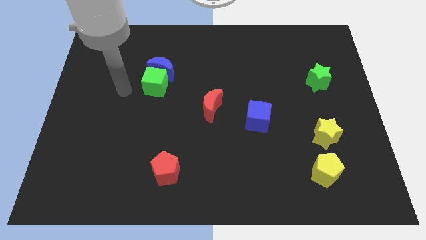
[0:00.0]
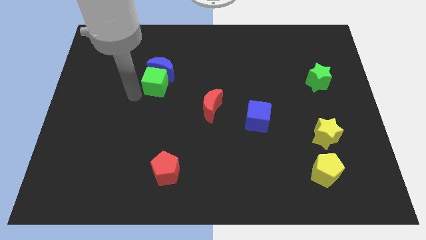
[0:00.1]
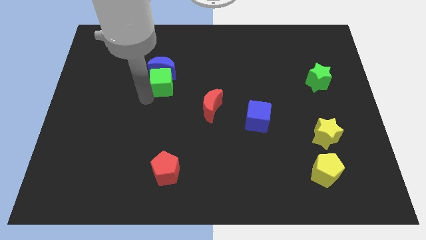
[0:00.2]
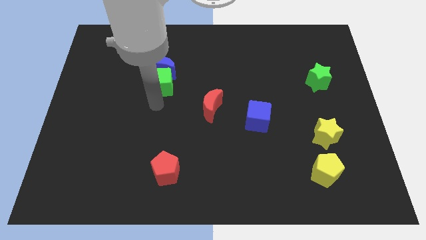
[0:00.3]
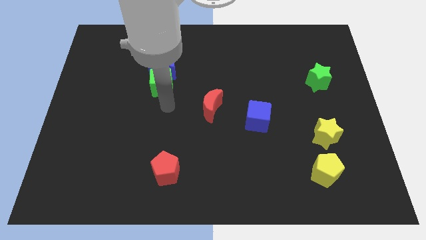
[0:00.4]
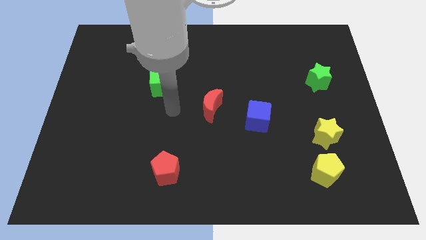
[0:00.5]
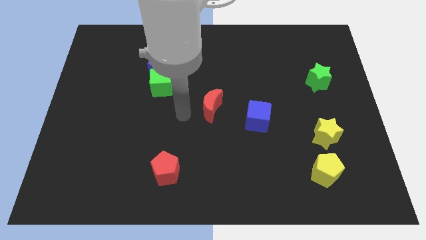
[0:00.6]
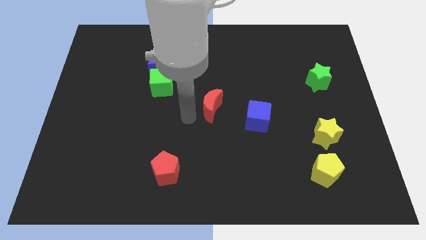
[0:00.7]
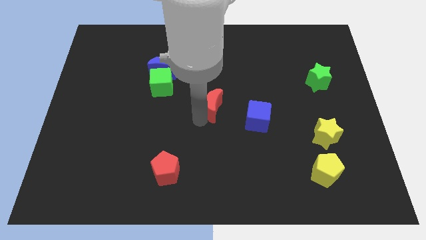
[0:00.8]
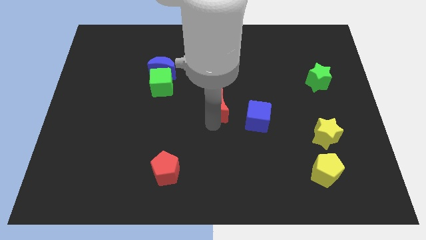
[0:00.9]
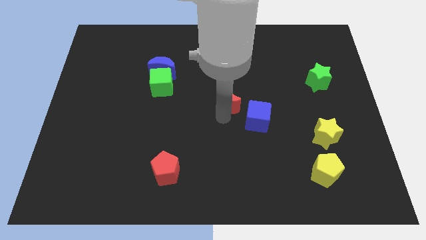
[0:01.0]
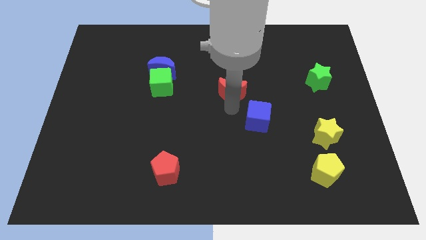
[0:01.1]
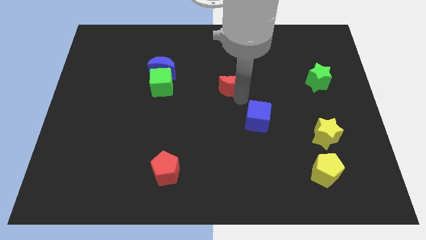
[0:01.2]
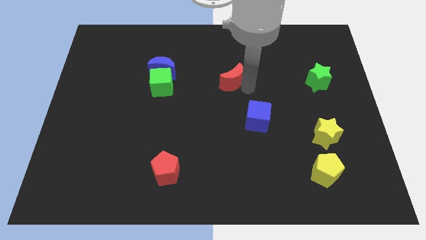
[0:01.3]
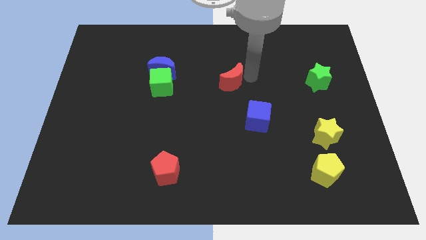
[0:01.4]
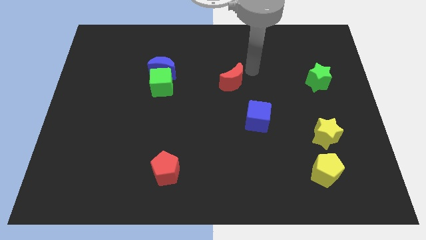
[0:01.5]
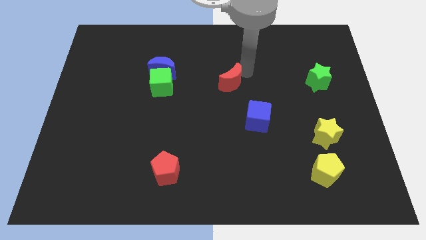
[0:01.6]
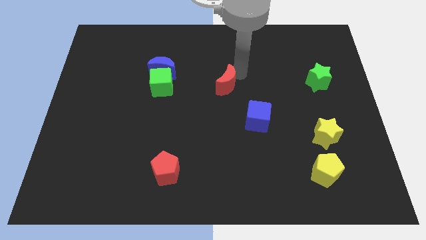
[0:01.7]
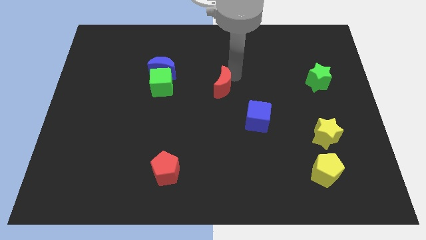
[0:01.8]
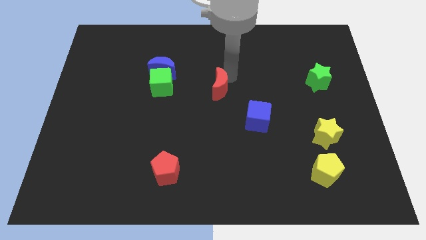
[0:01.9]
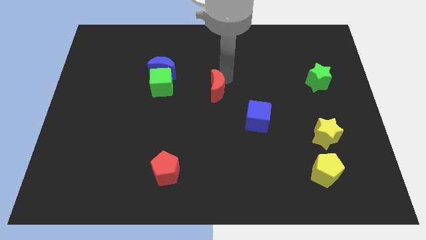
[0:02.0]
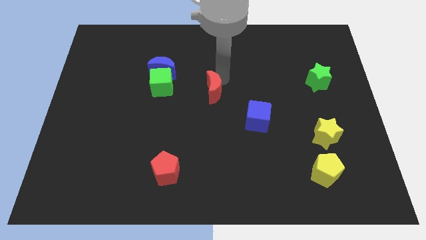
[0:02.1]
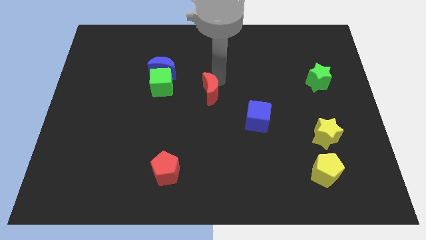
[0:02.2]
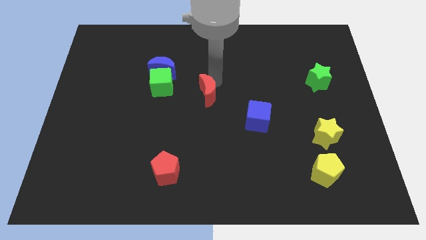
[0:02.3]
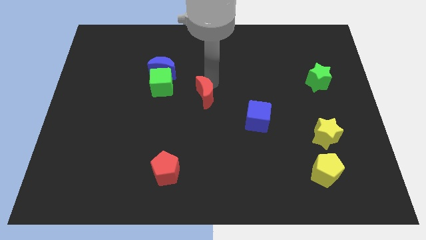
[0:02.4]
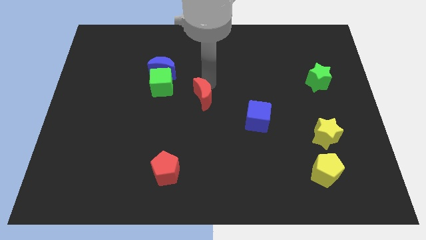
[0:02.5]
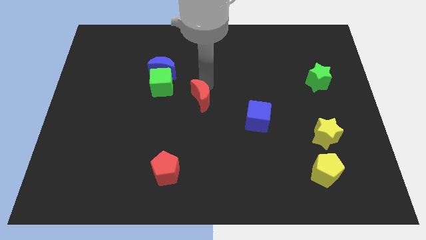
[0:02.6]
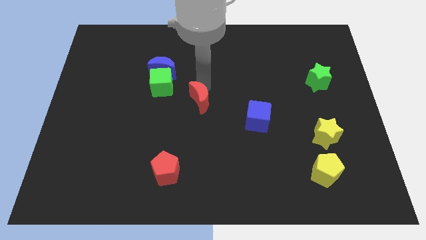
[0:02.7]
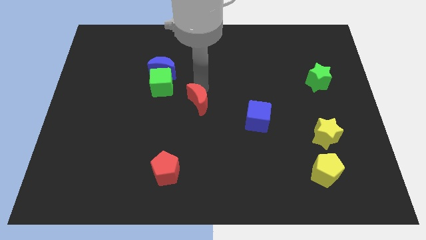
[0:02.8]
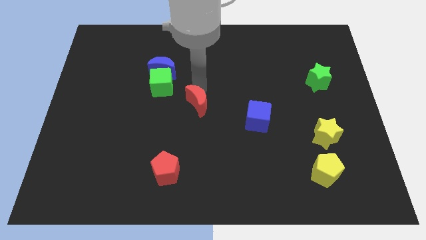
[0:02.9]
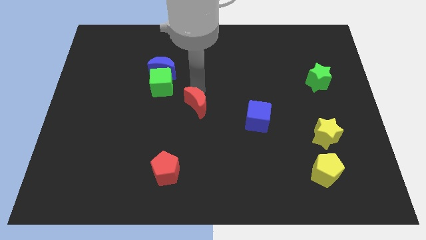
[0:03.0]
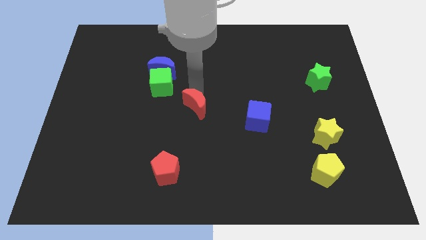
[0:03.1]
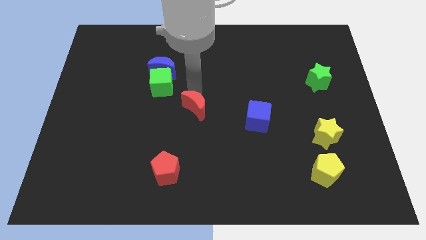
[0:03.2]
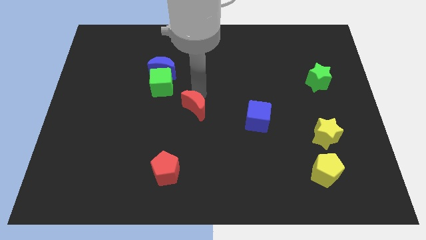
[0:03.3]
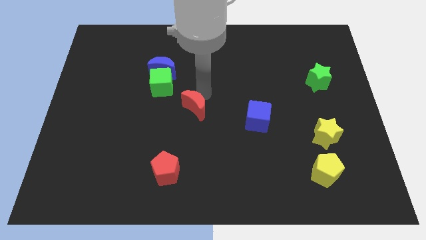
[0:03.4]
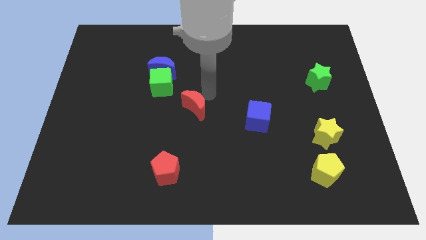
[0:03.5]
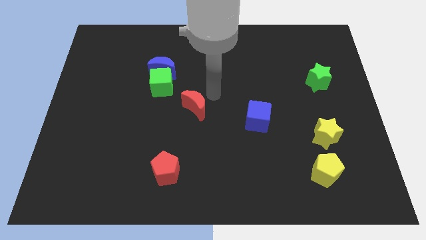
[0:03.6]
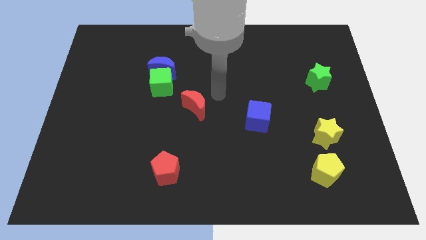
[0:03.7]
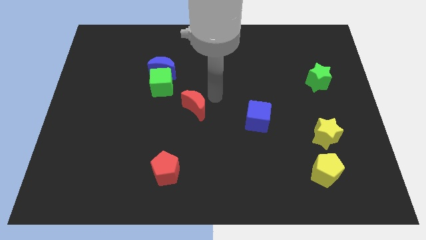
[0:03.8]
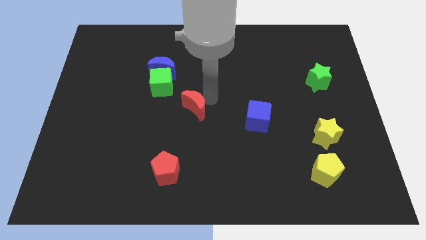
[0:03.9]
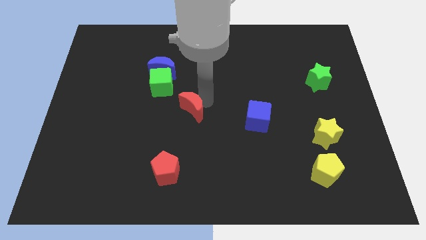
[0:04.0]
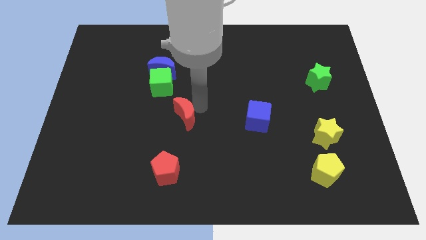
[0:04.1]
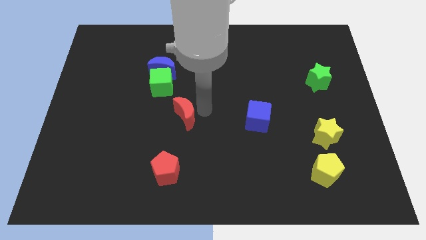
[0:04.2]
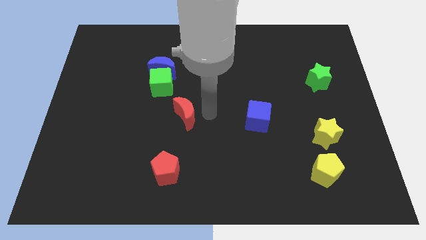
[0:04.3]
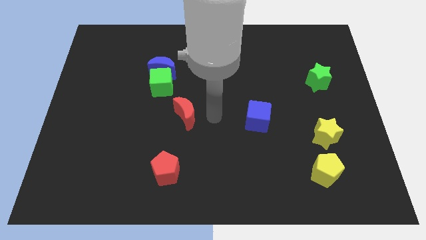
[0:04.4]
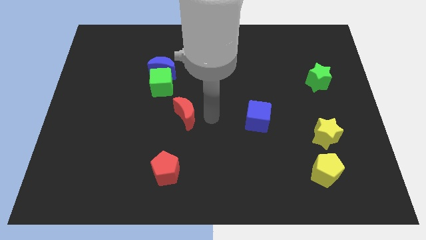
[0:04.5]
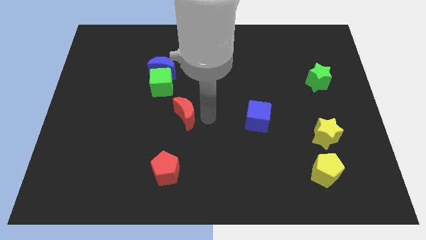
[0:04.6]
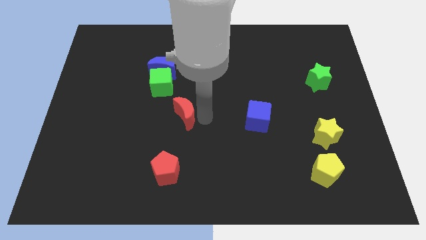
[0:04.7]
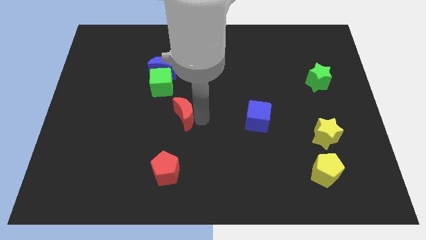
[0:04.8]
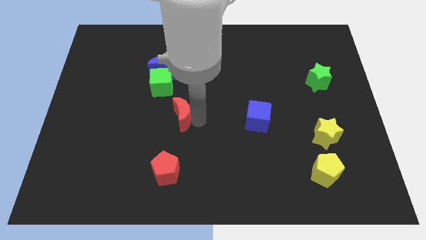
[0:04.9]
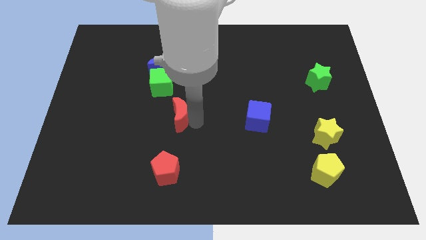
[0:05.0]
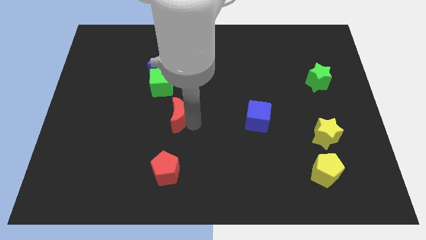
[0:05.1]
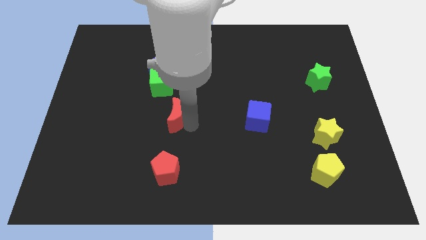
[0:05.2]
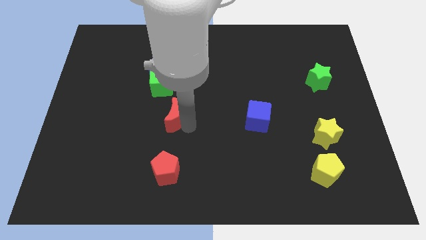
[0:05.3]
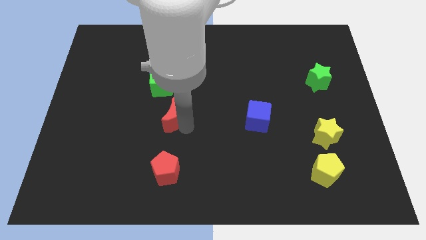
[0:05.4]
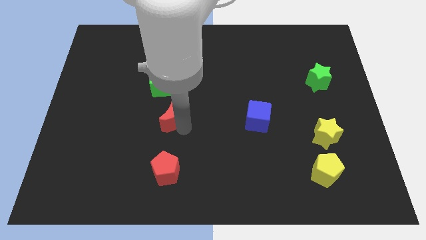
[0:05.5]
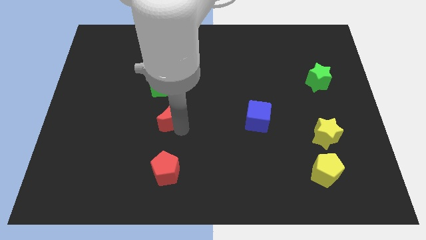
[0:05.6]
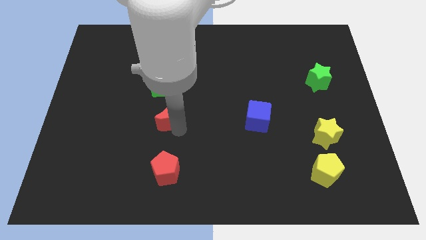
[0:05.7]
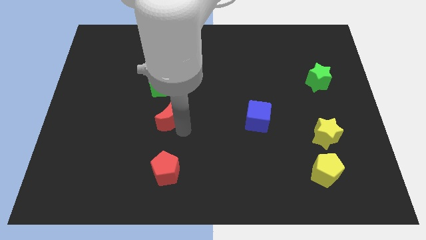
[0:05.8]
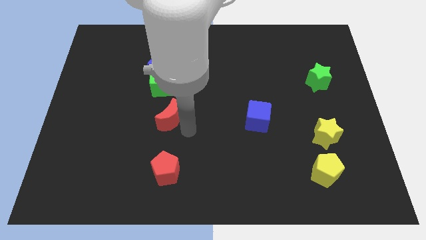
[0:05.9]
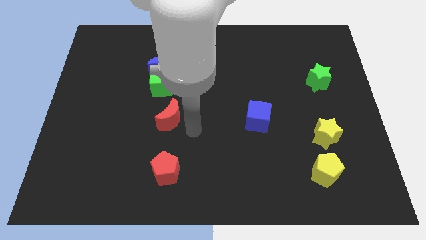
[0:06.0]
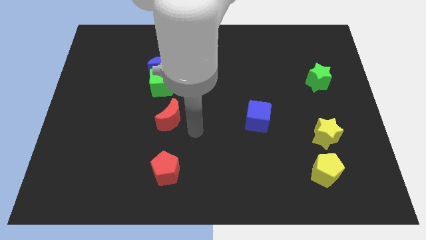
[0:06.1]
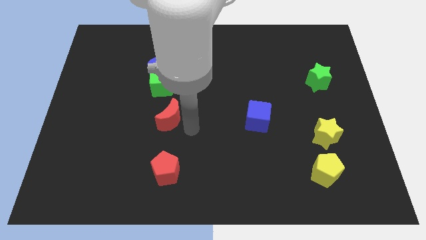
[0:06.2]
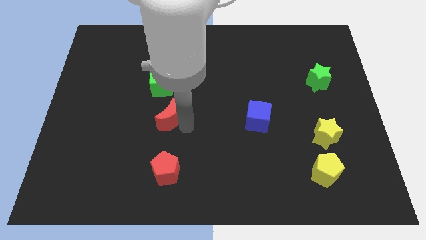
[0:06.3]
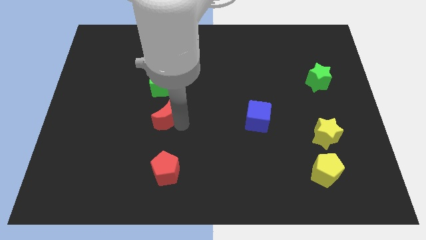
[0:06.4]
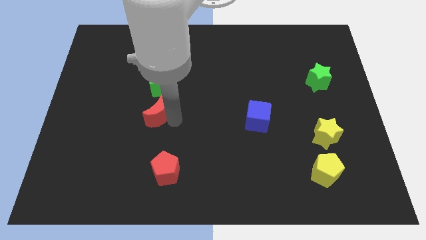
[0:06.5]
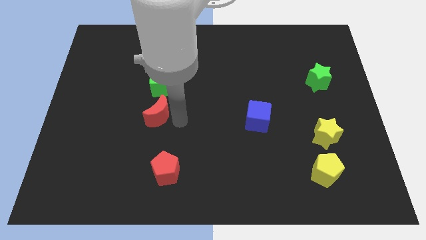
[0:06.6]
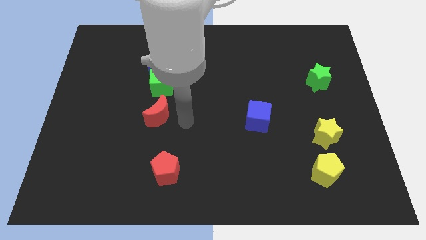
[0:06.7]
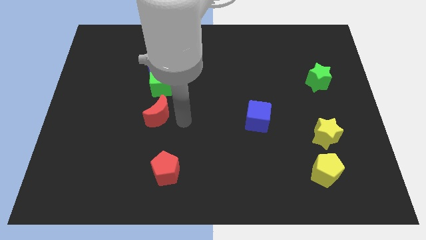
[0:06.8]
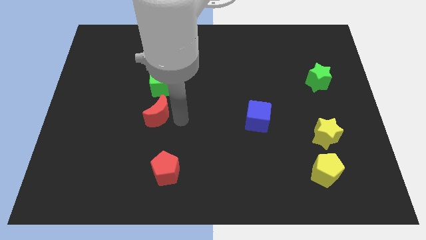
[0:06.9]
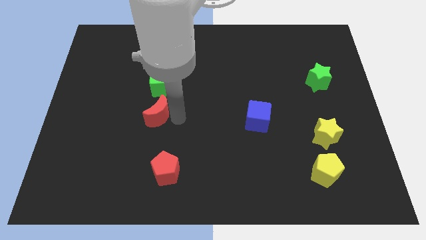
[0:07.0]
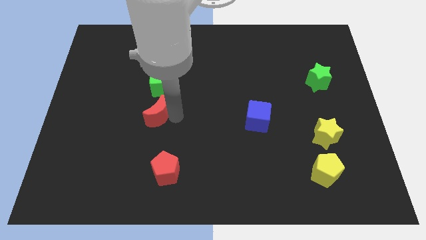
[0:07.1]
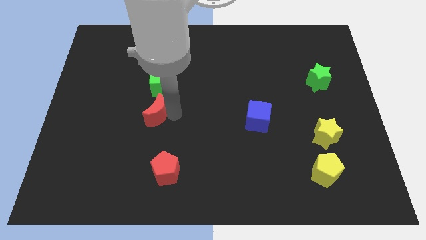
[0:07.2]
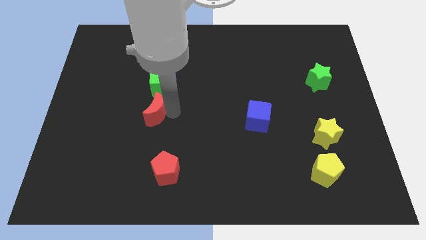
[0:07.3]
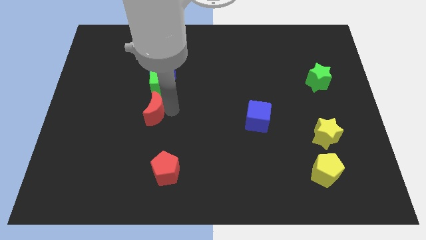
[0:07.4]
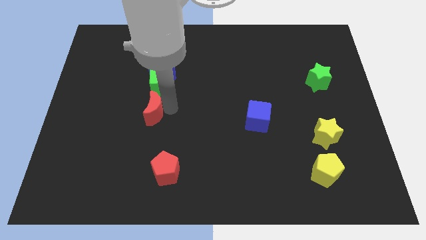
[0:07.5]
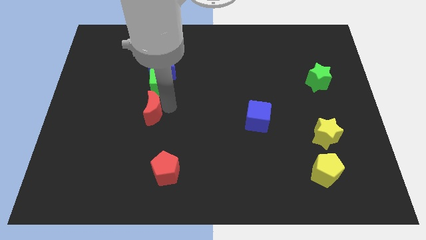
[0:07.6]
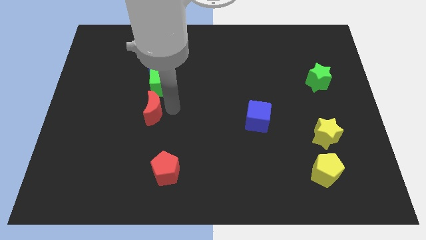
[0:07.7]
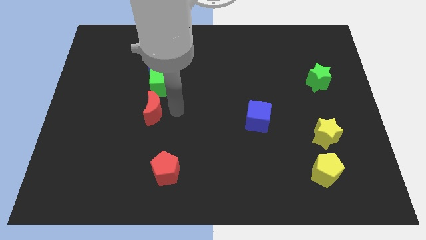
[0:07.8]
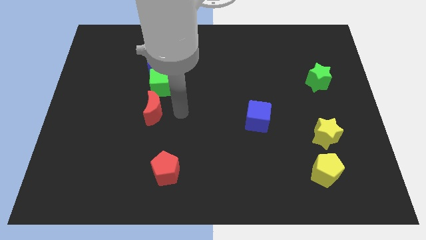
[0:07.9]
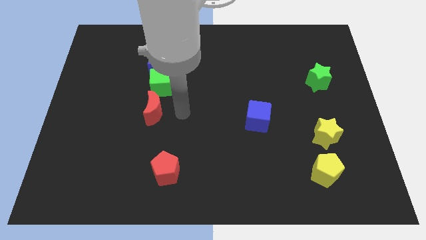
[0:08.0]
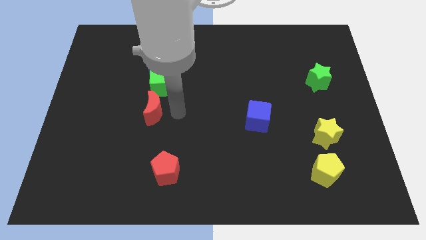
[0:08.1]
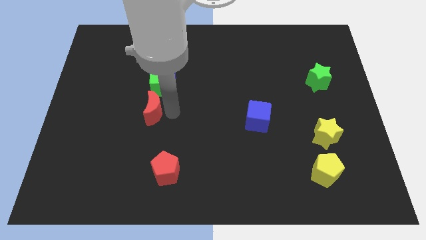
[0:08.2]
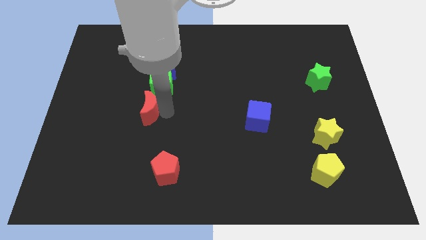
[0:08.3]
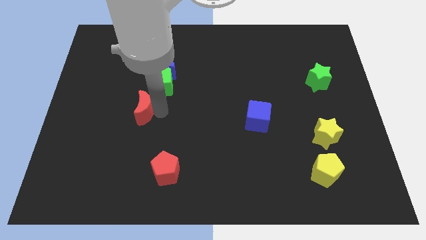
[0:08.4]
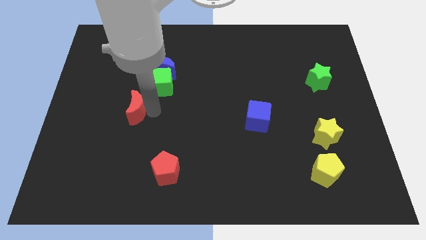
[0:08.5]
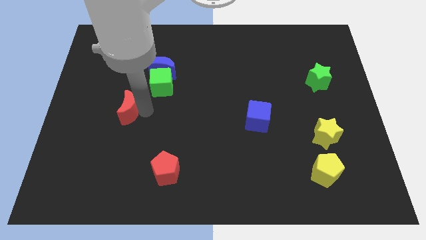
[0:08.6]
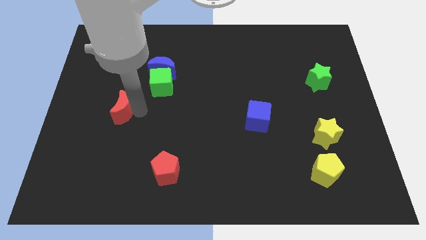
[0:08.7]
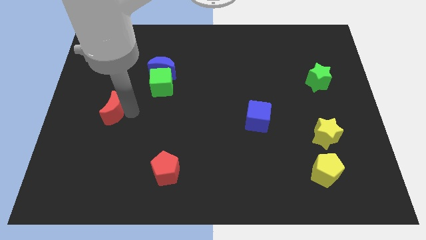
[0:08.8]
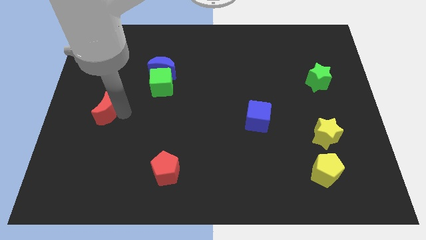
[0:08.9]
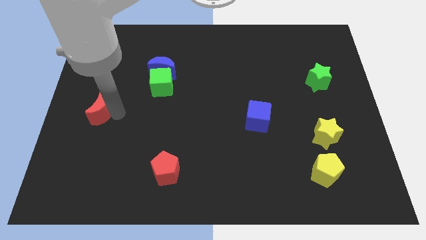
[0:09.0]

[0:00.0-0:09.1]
push the red moon to the center left
